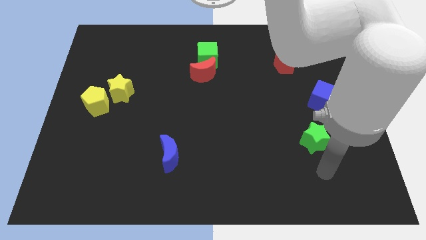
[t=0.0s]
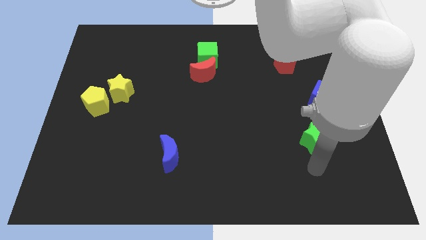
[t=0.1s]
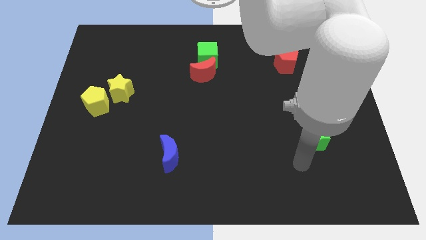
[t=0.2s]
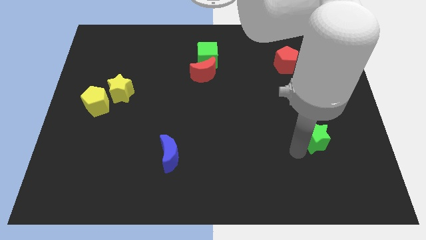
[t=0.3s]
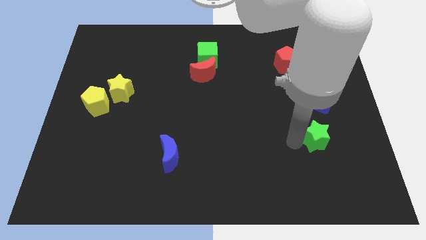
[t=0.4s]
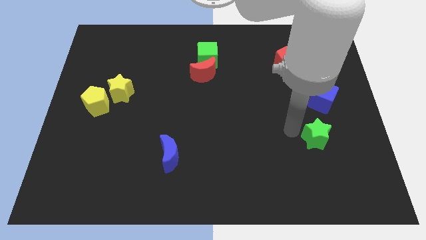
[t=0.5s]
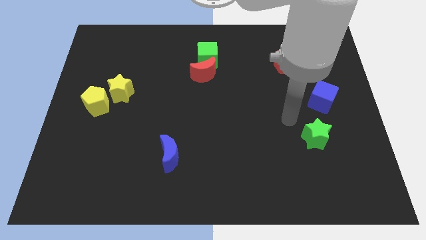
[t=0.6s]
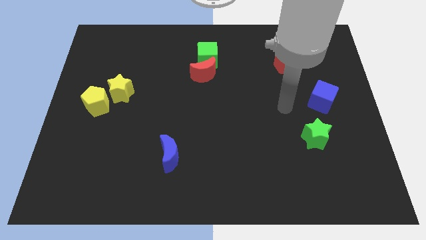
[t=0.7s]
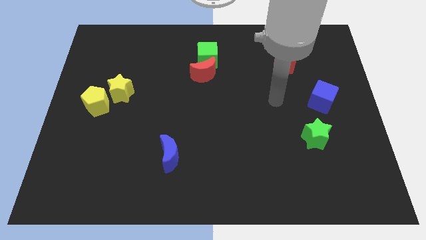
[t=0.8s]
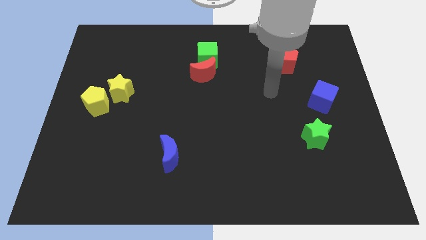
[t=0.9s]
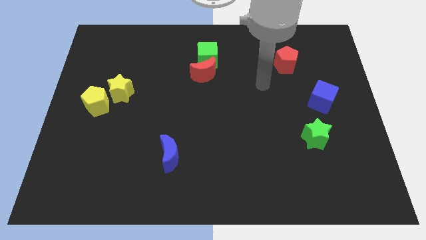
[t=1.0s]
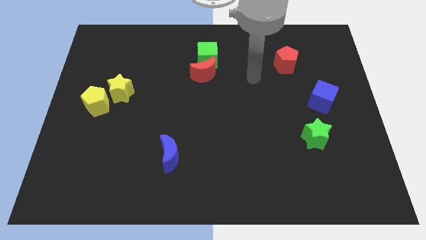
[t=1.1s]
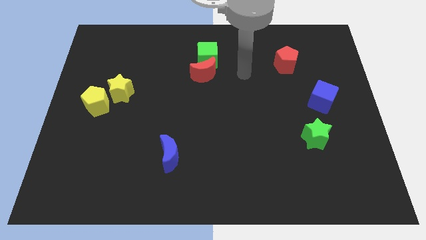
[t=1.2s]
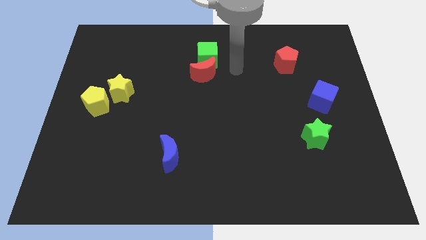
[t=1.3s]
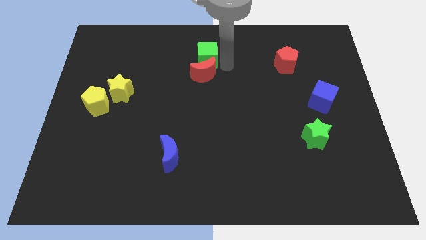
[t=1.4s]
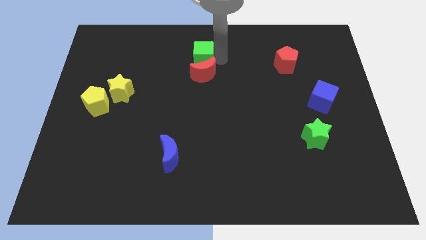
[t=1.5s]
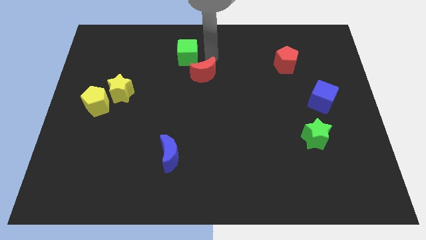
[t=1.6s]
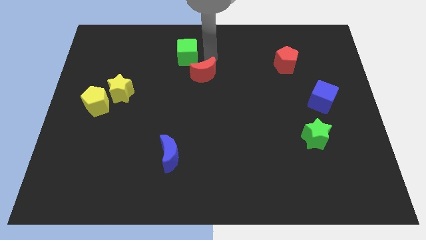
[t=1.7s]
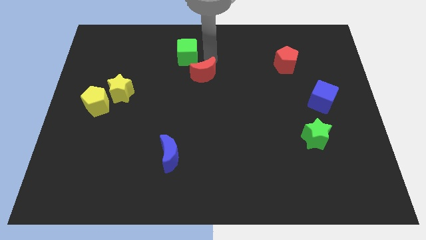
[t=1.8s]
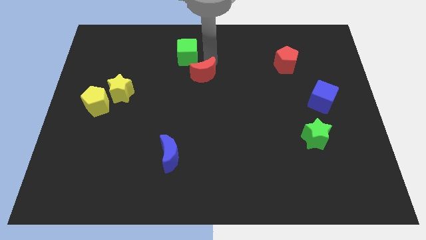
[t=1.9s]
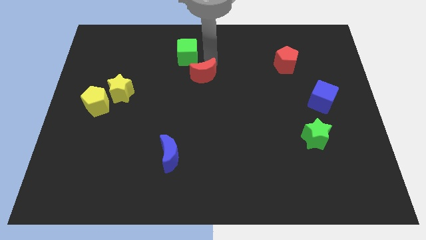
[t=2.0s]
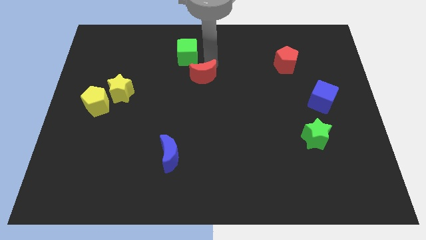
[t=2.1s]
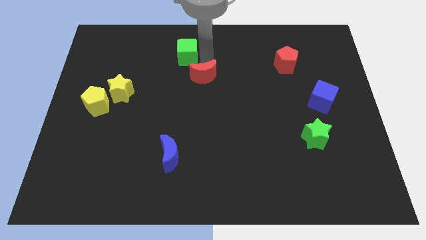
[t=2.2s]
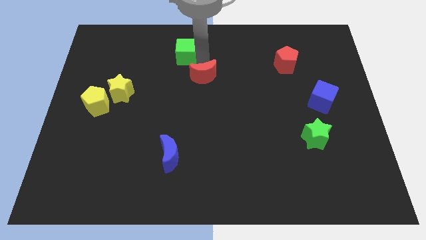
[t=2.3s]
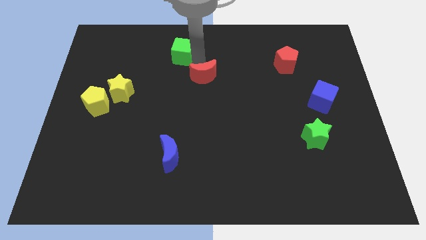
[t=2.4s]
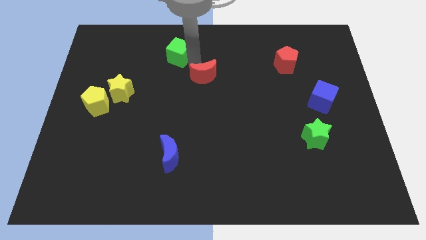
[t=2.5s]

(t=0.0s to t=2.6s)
pull the red moon apart from the green cube

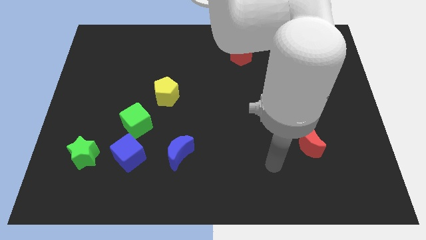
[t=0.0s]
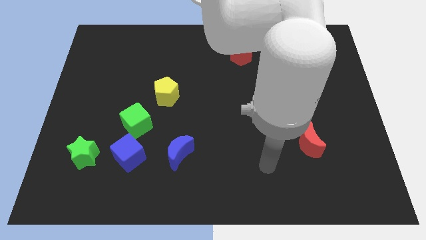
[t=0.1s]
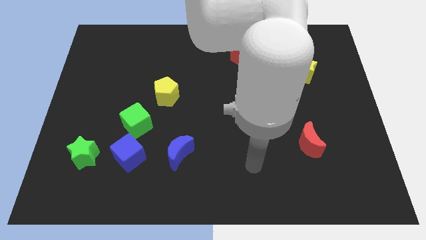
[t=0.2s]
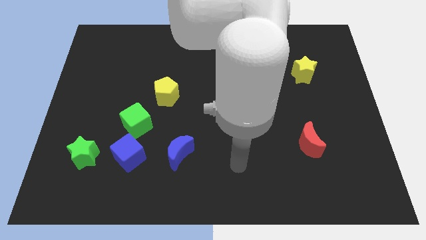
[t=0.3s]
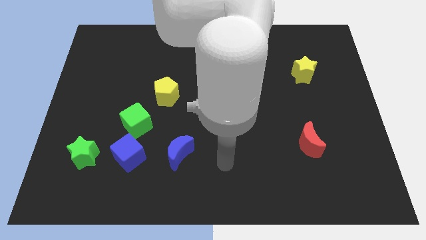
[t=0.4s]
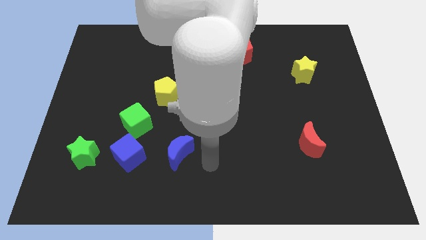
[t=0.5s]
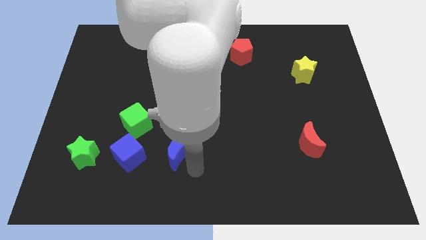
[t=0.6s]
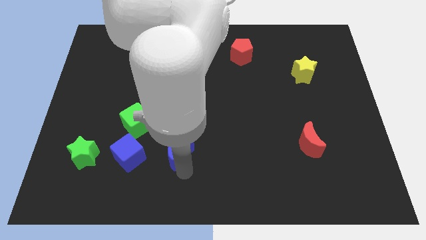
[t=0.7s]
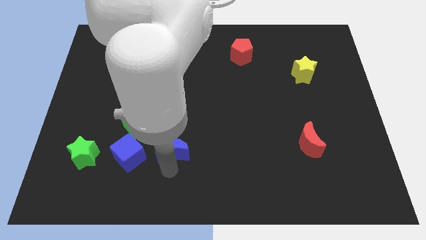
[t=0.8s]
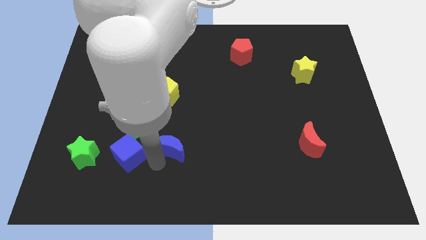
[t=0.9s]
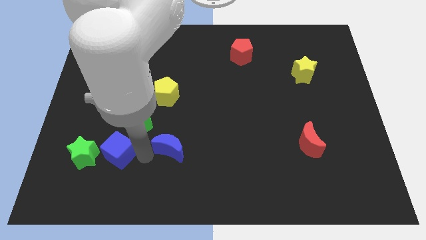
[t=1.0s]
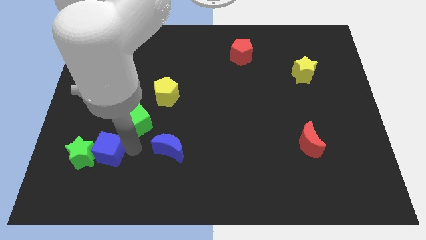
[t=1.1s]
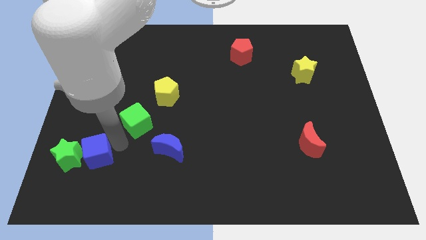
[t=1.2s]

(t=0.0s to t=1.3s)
move the green cube away from the blue cube

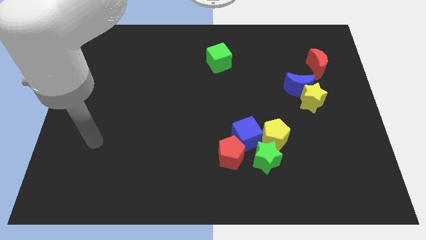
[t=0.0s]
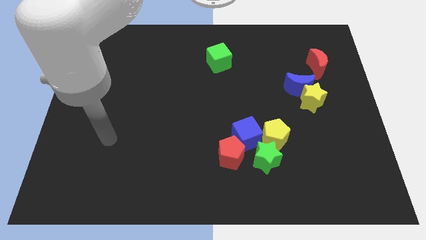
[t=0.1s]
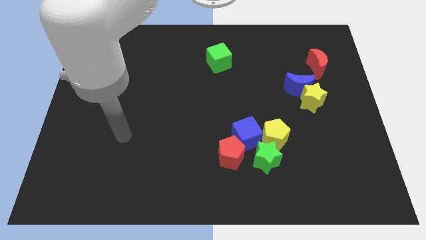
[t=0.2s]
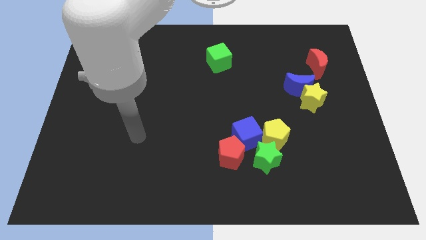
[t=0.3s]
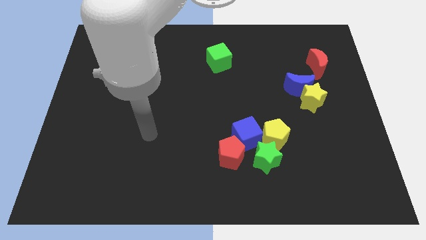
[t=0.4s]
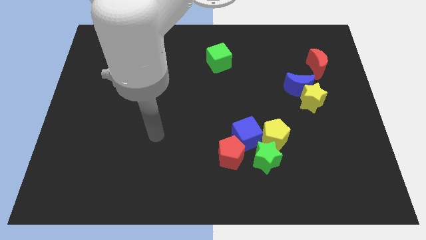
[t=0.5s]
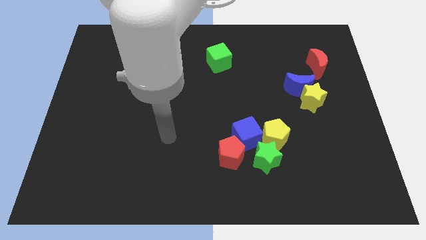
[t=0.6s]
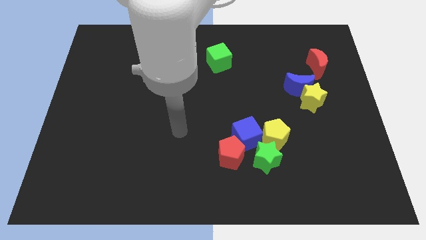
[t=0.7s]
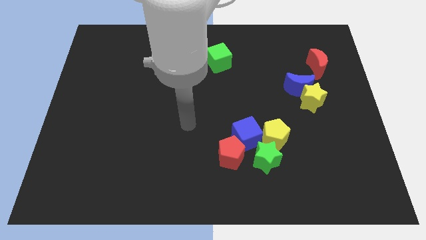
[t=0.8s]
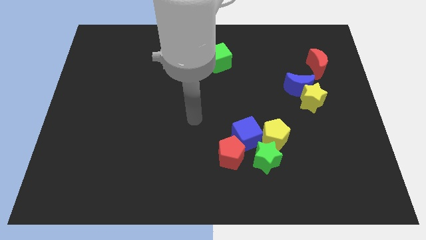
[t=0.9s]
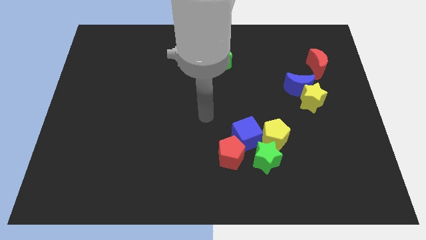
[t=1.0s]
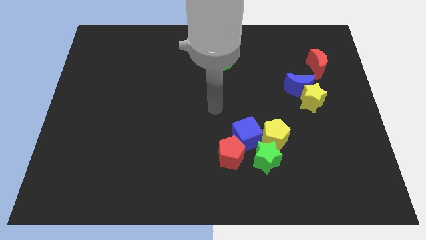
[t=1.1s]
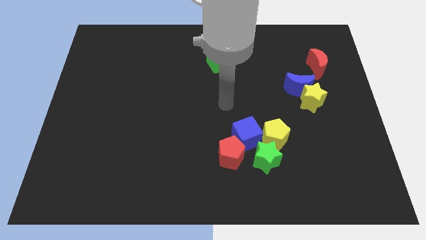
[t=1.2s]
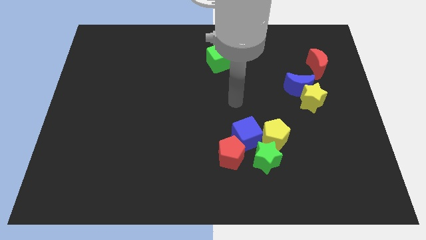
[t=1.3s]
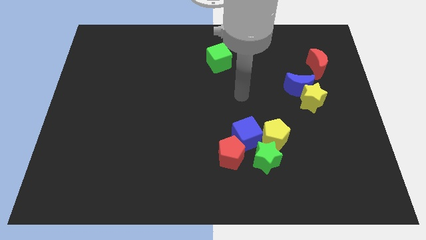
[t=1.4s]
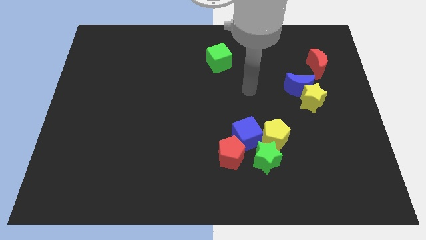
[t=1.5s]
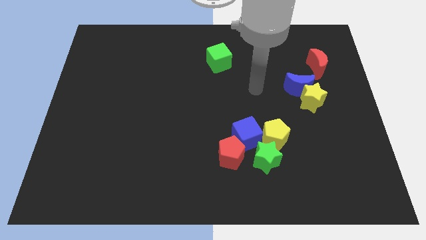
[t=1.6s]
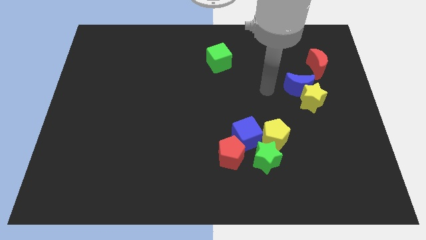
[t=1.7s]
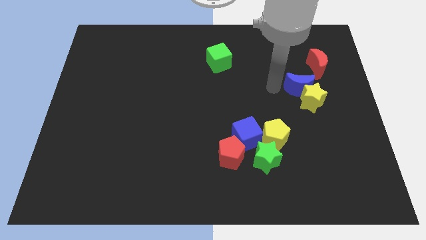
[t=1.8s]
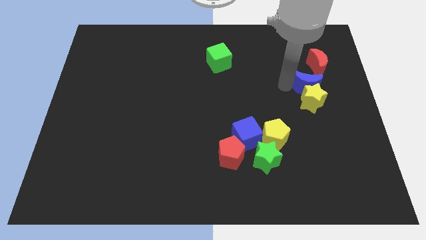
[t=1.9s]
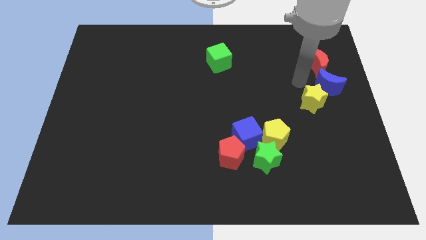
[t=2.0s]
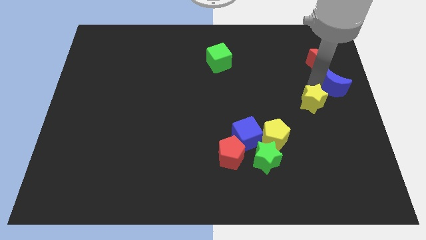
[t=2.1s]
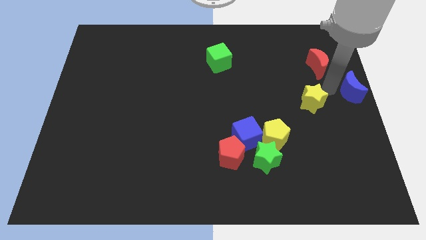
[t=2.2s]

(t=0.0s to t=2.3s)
pull the yellow star apart from the blue moon

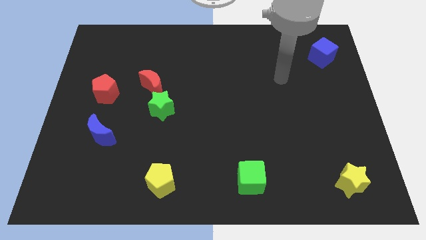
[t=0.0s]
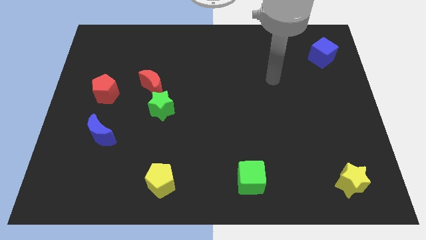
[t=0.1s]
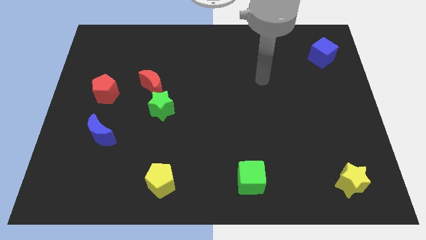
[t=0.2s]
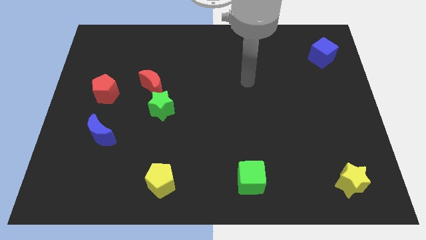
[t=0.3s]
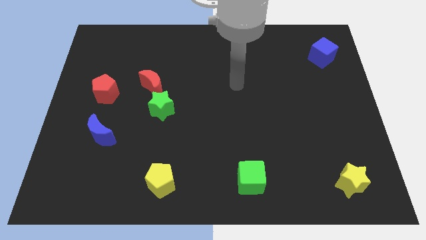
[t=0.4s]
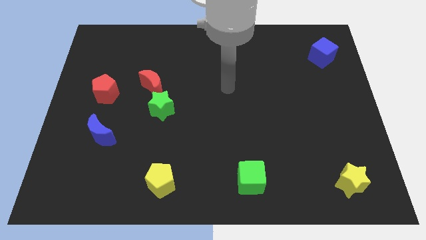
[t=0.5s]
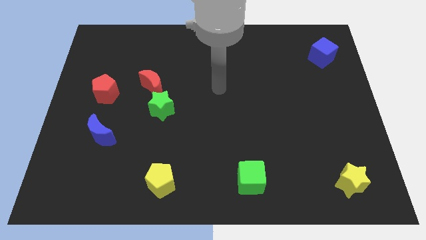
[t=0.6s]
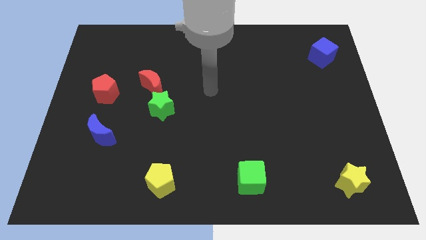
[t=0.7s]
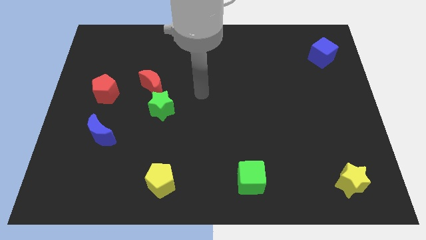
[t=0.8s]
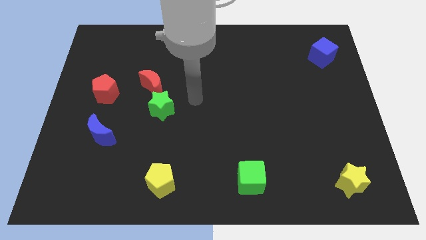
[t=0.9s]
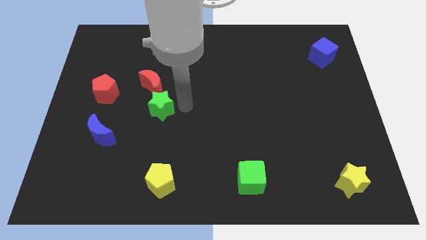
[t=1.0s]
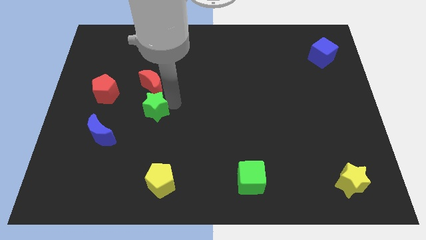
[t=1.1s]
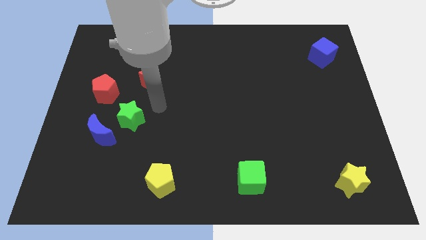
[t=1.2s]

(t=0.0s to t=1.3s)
move the red moon away from the green star

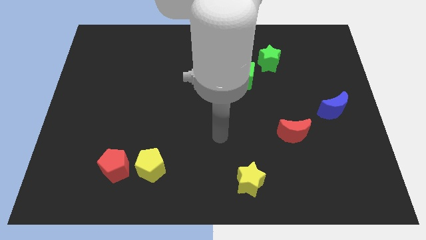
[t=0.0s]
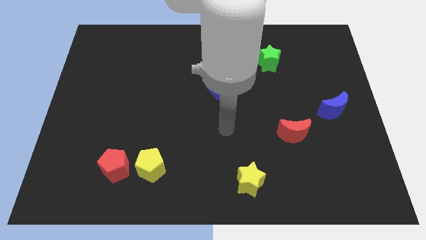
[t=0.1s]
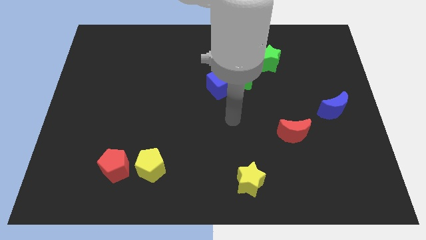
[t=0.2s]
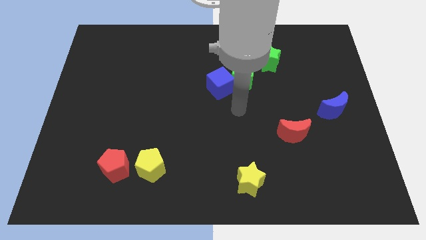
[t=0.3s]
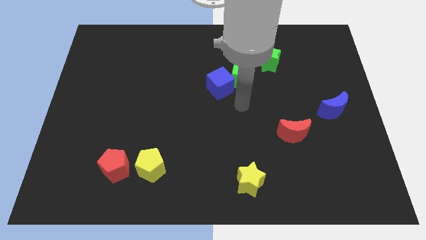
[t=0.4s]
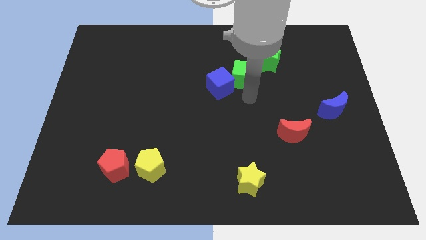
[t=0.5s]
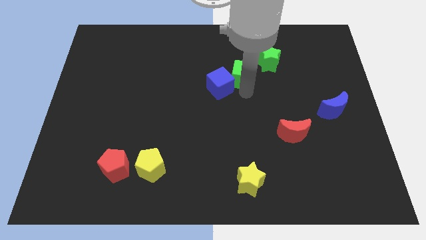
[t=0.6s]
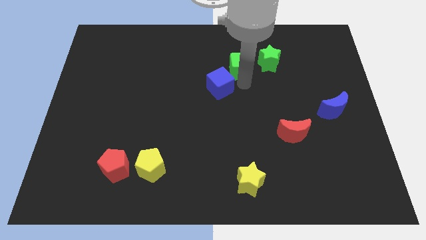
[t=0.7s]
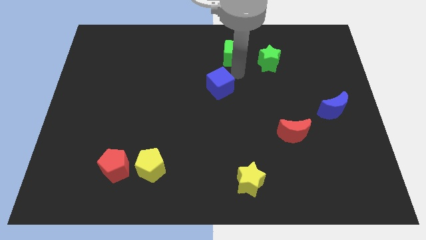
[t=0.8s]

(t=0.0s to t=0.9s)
separate the blue cube from the green cube

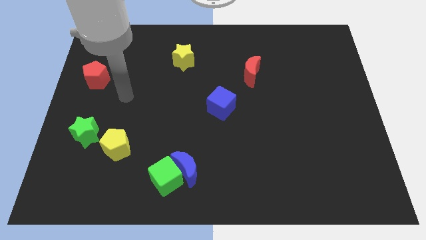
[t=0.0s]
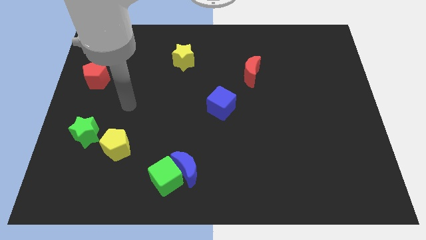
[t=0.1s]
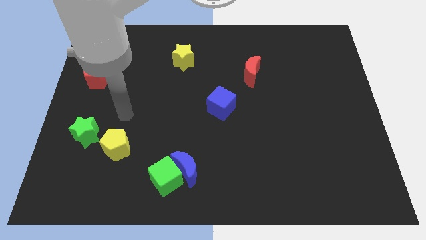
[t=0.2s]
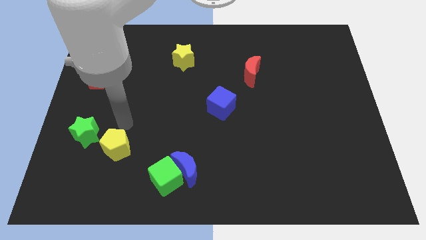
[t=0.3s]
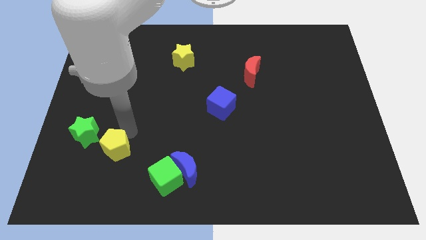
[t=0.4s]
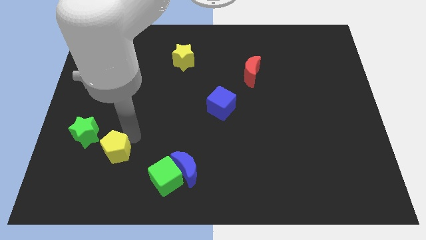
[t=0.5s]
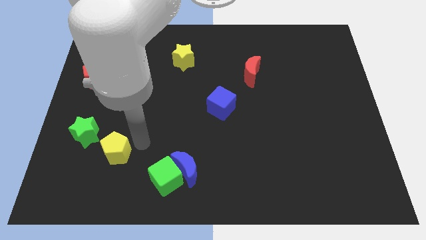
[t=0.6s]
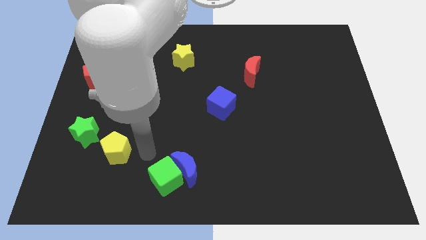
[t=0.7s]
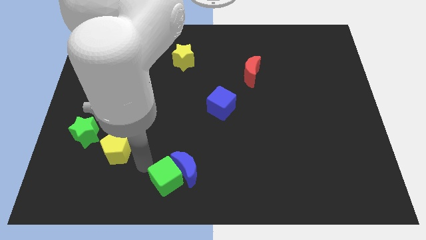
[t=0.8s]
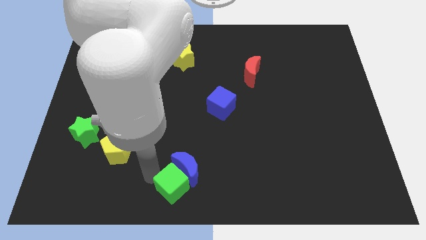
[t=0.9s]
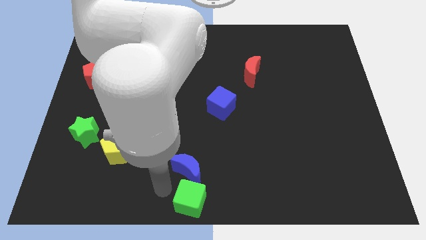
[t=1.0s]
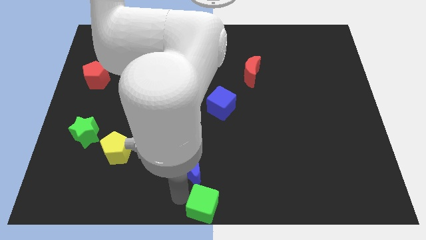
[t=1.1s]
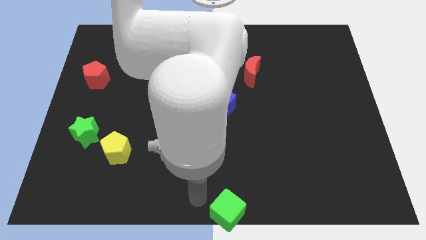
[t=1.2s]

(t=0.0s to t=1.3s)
pull the blue moon apart from the green cube
